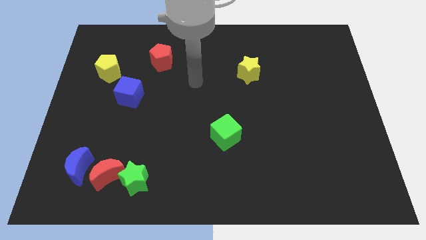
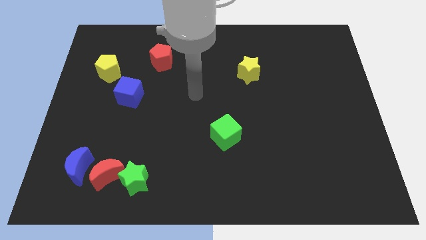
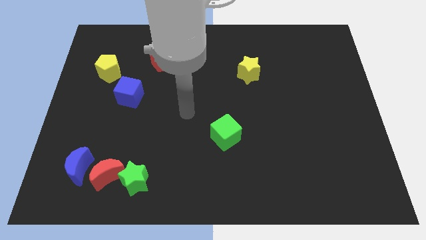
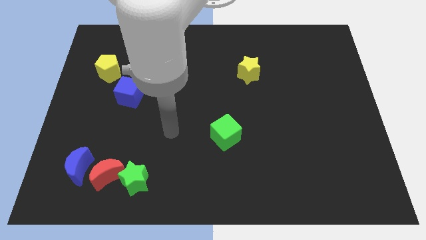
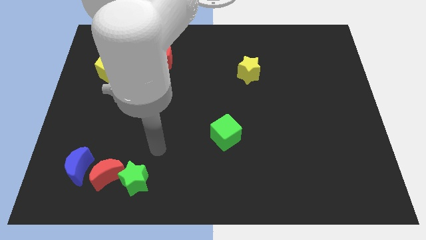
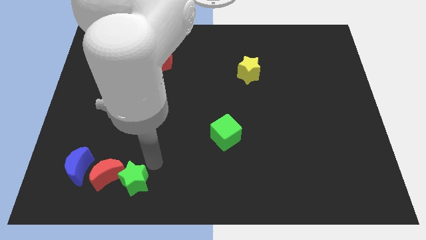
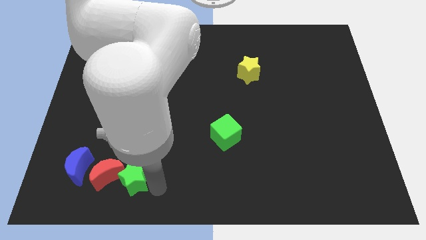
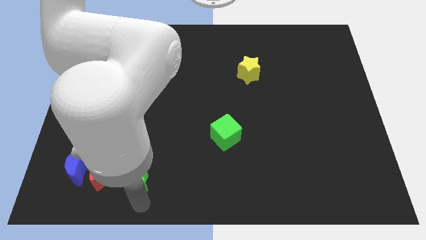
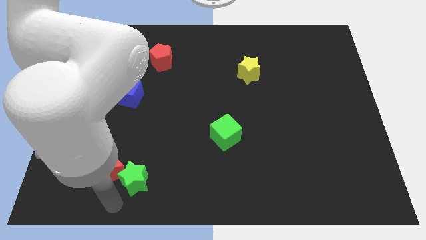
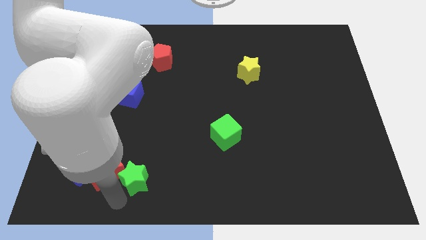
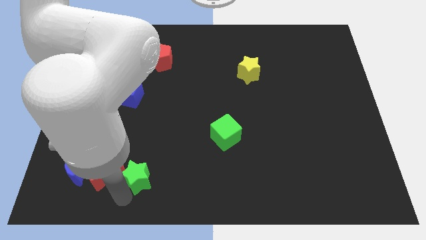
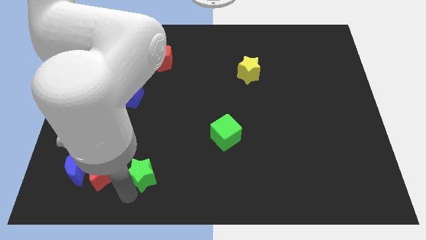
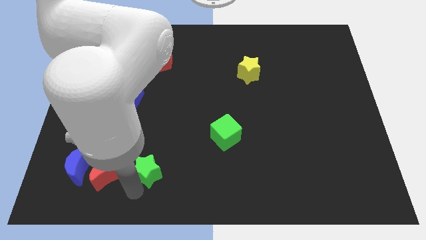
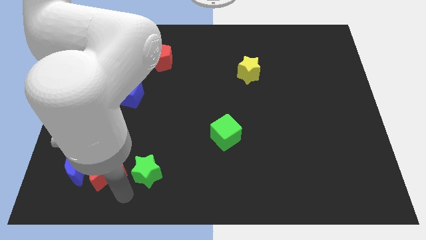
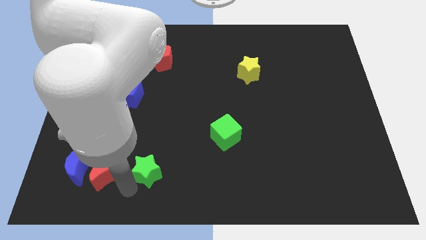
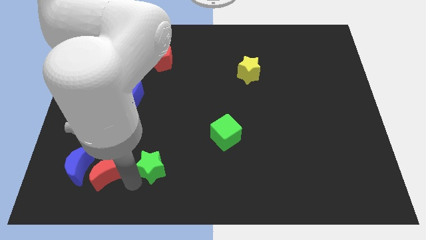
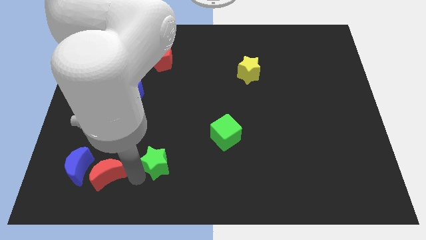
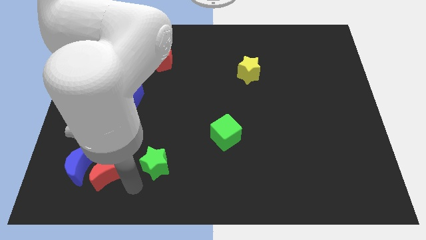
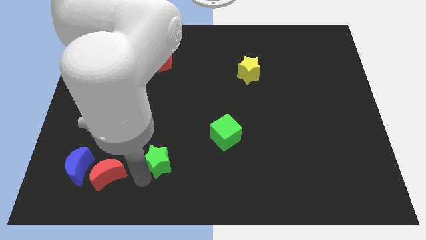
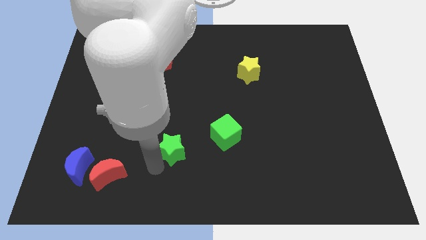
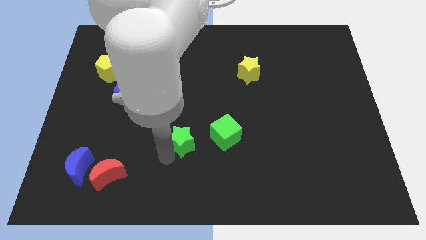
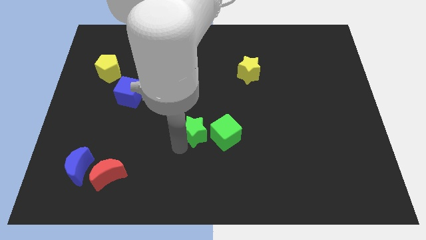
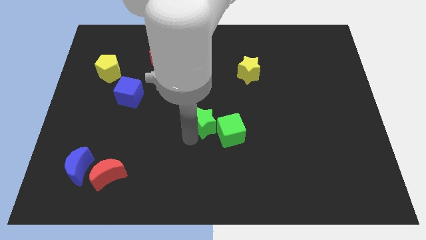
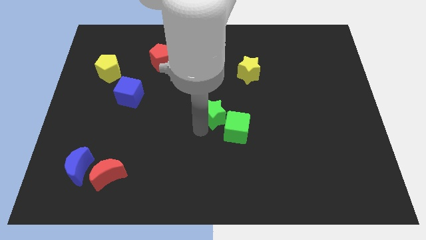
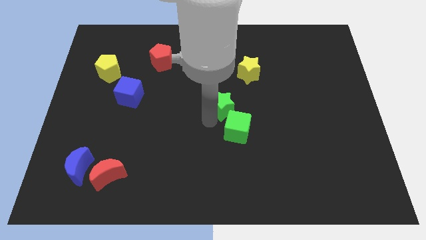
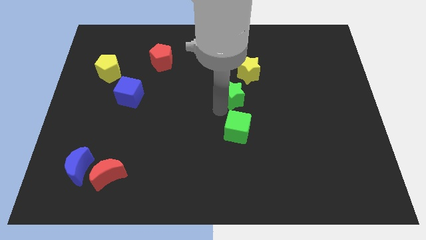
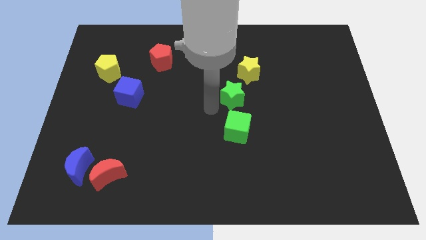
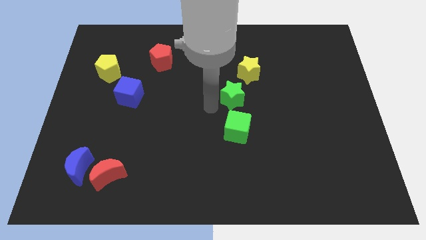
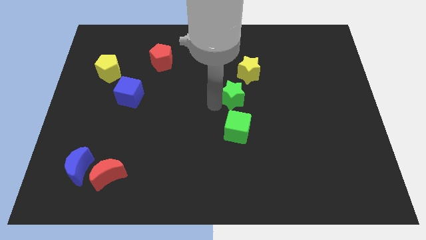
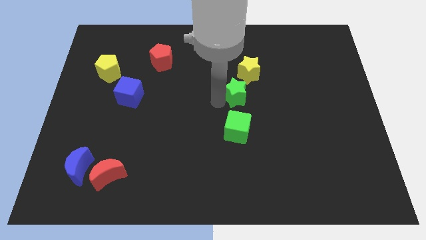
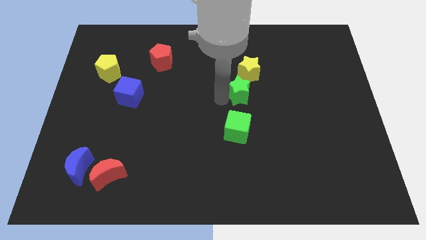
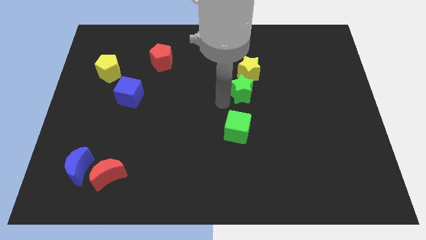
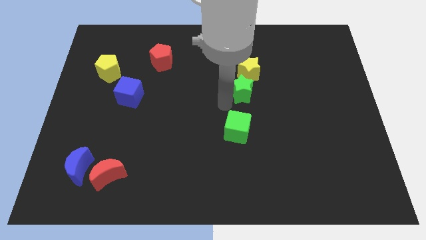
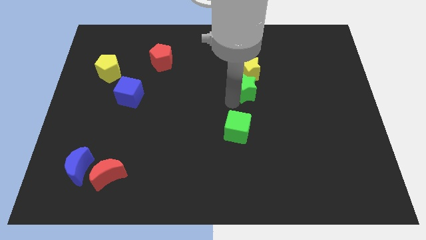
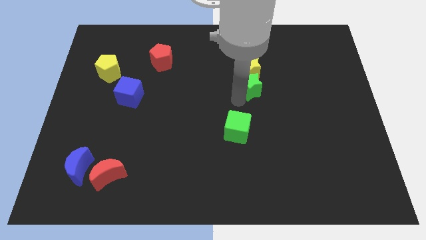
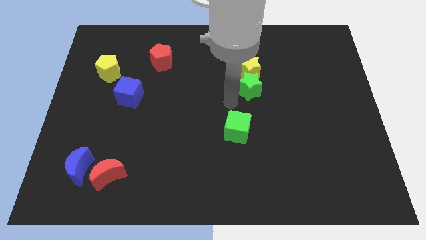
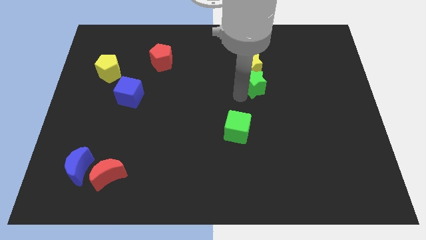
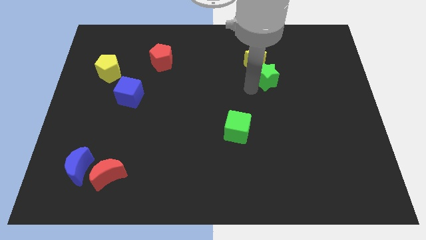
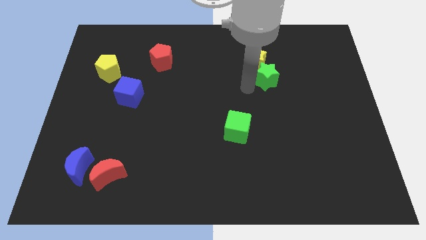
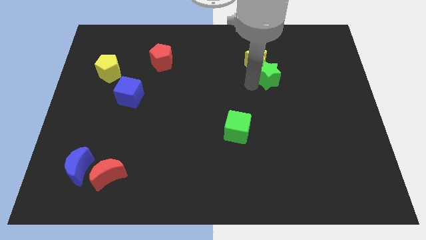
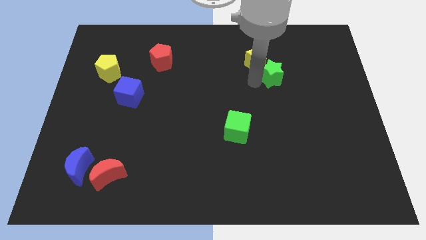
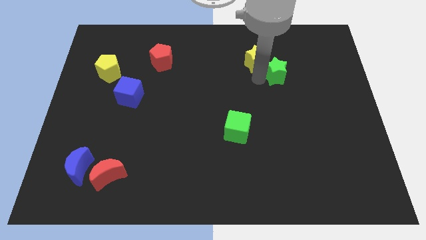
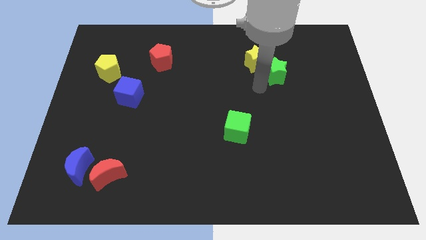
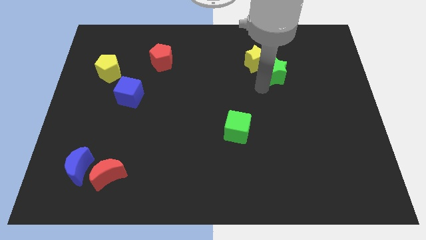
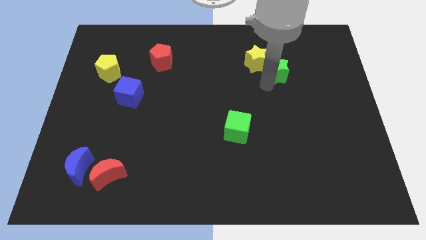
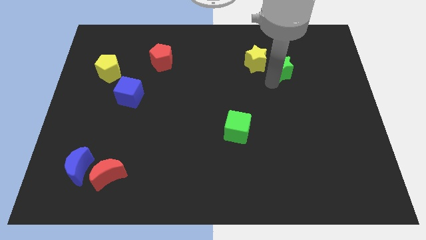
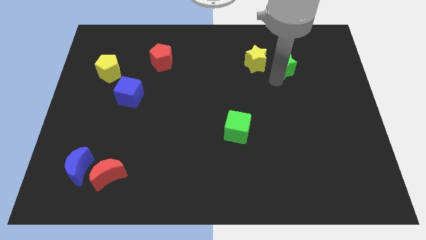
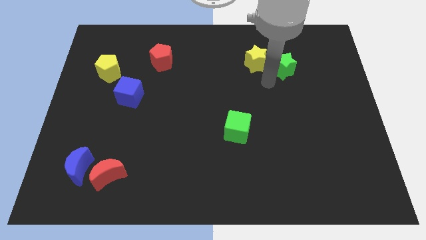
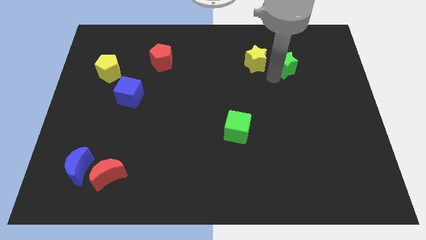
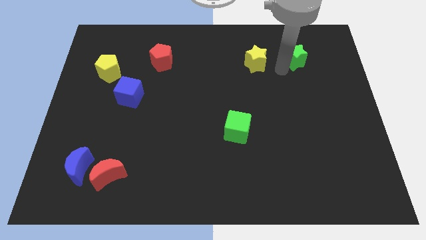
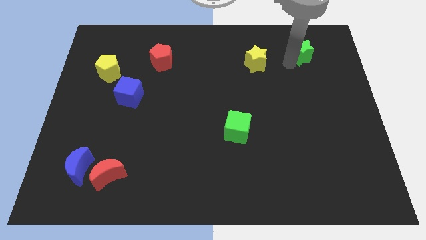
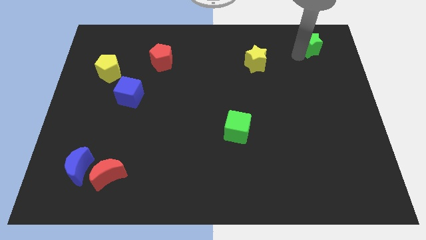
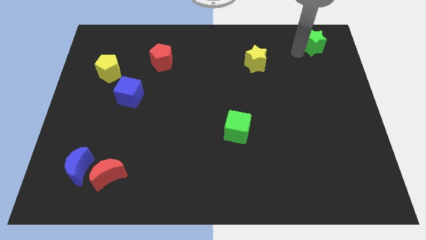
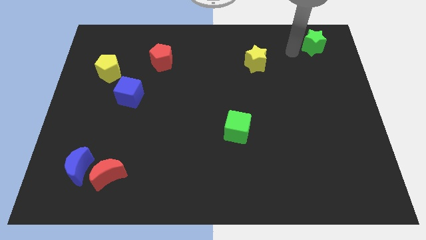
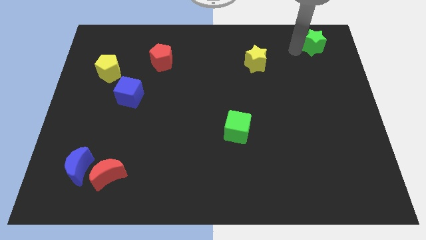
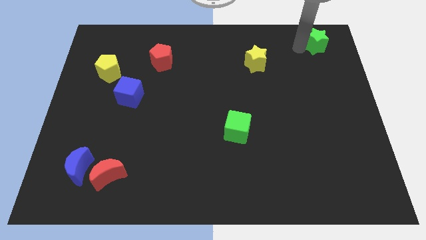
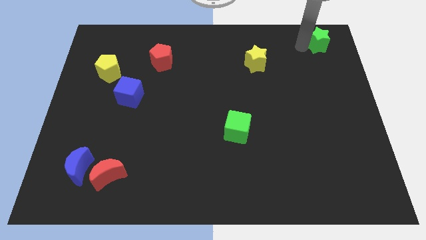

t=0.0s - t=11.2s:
move the green star to the top right corner
